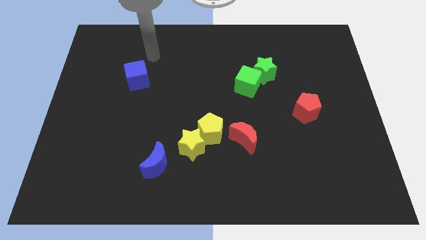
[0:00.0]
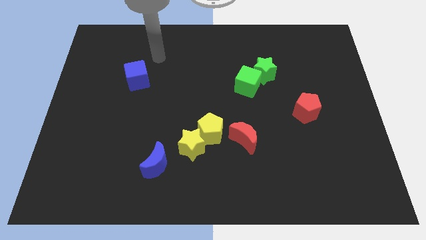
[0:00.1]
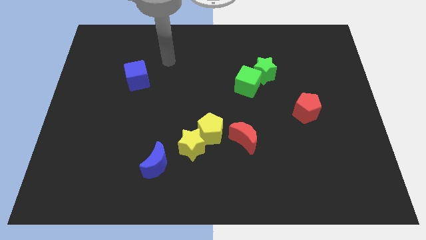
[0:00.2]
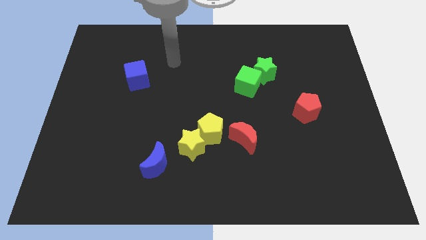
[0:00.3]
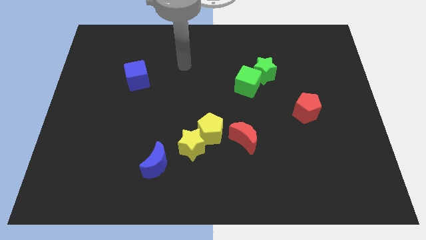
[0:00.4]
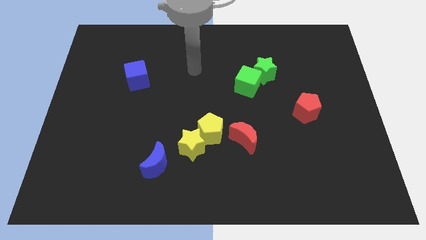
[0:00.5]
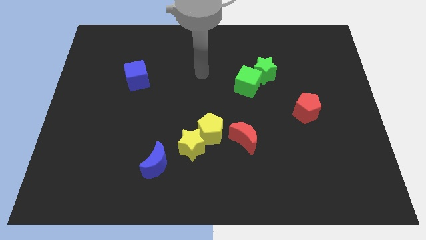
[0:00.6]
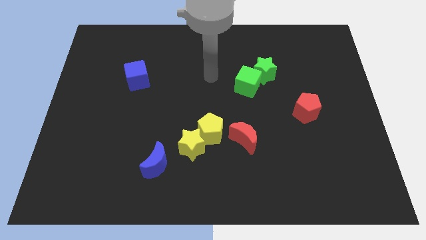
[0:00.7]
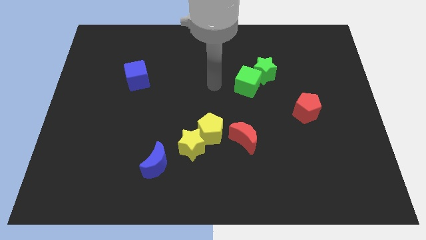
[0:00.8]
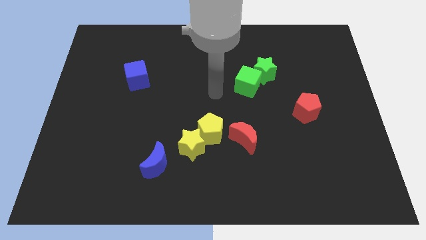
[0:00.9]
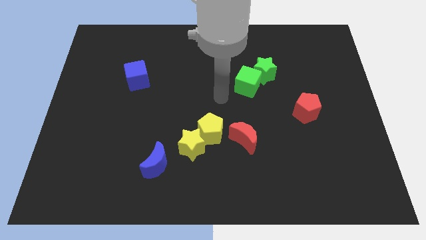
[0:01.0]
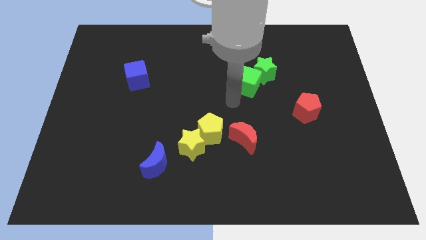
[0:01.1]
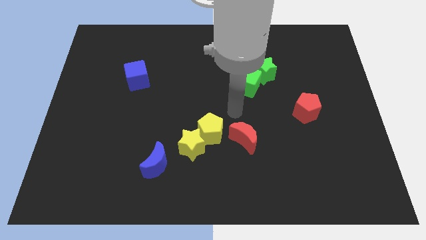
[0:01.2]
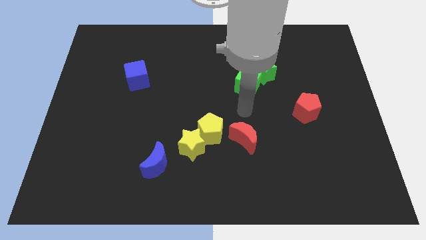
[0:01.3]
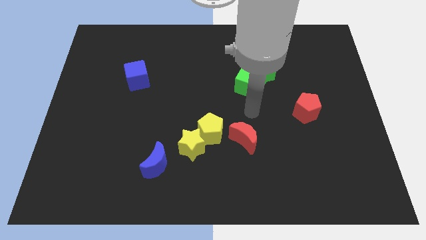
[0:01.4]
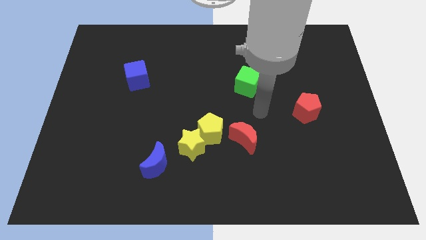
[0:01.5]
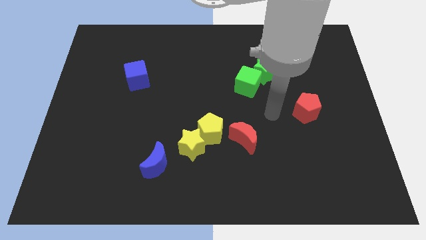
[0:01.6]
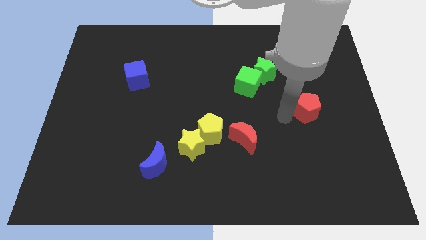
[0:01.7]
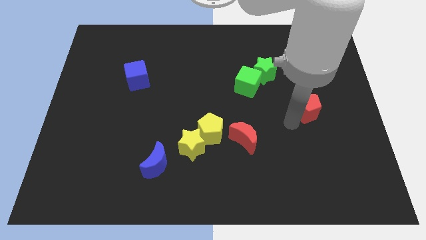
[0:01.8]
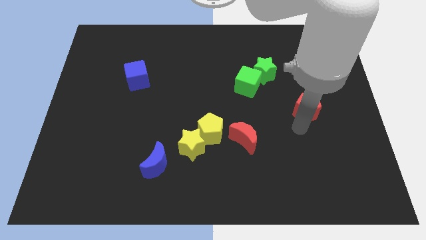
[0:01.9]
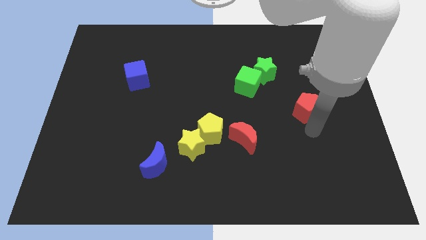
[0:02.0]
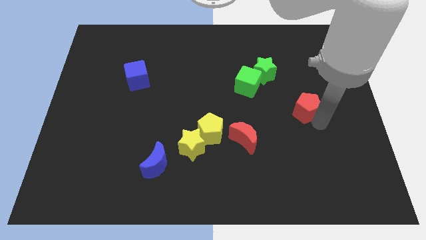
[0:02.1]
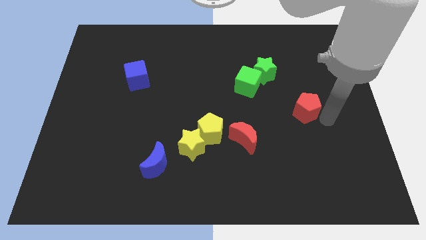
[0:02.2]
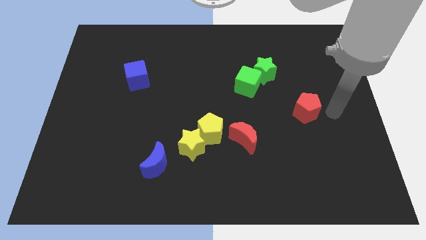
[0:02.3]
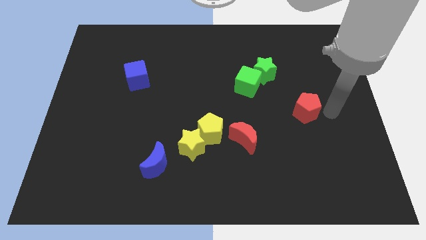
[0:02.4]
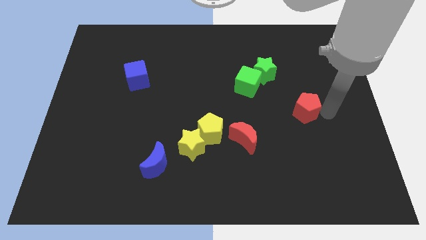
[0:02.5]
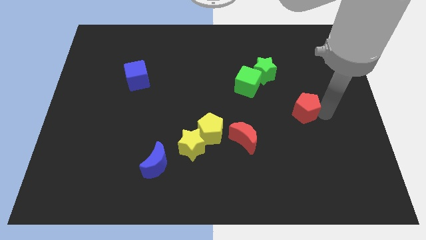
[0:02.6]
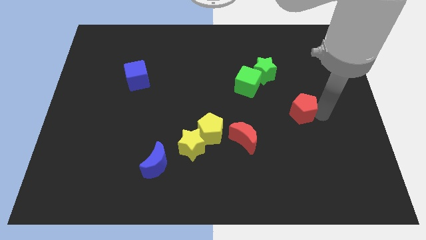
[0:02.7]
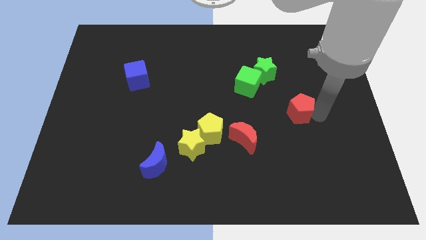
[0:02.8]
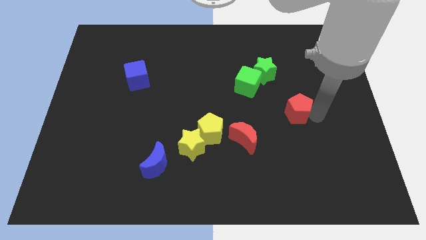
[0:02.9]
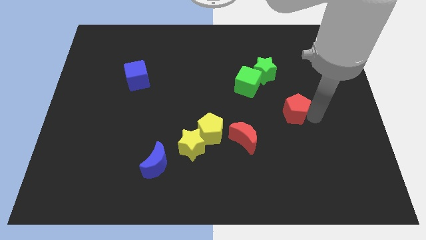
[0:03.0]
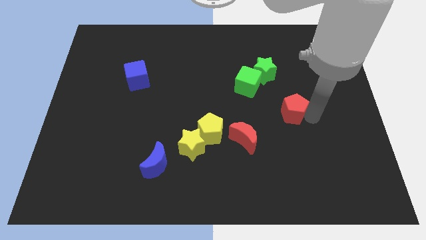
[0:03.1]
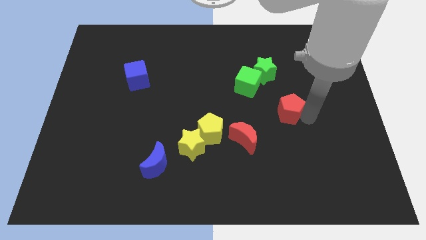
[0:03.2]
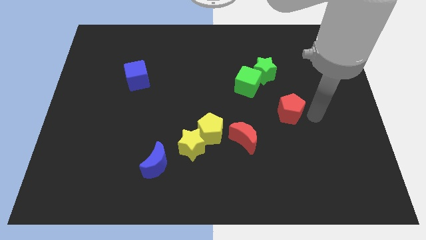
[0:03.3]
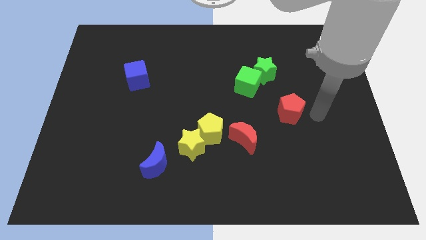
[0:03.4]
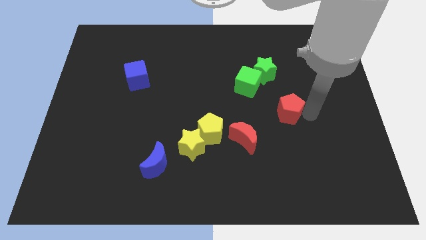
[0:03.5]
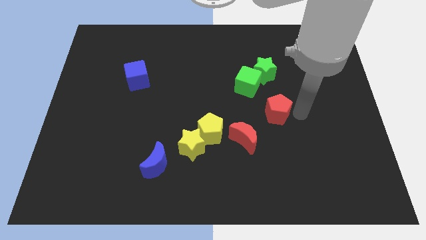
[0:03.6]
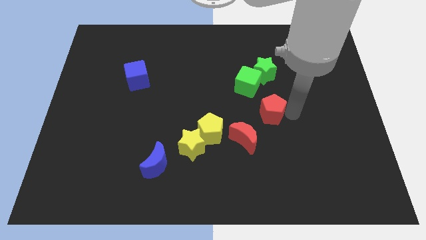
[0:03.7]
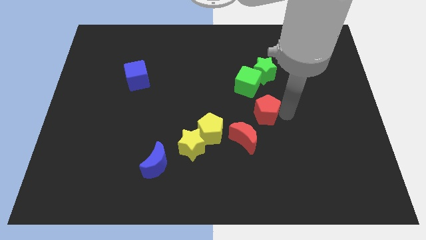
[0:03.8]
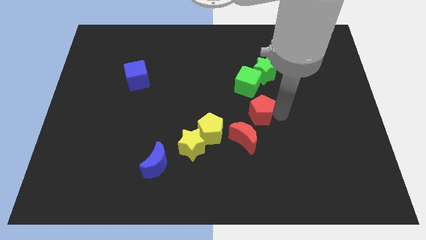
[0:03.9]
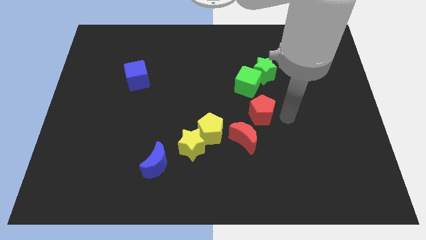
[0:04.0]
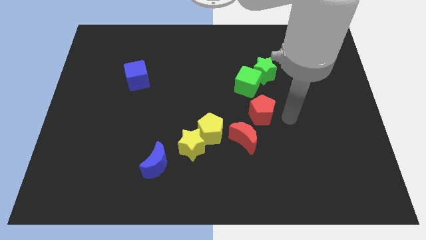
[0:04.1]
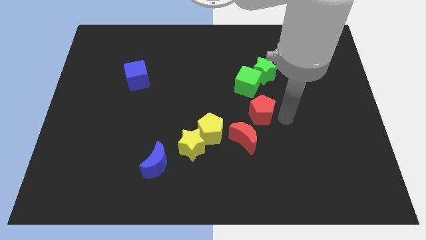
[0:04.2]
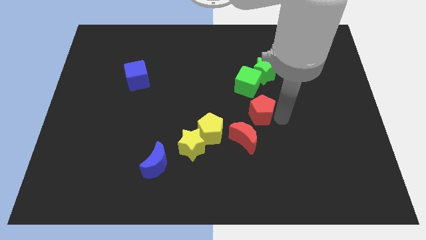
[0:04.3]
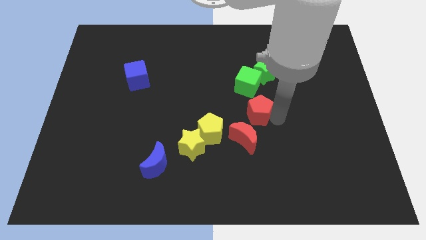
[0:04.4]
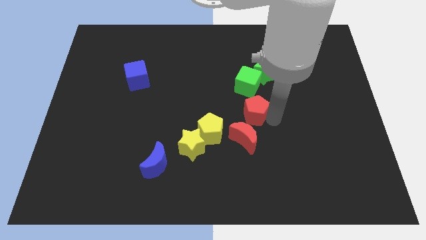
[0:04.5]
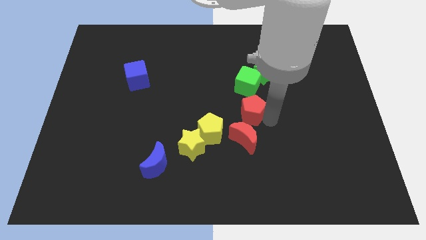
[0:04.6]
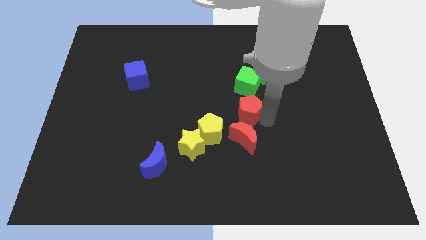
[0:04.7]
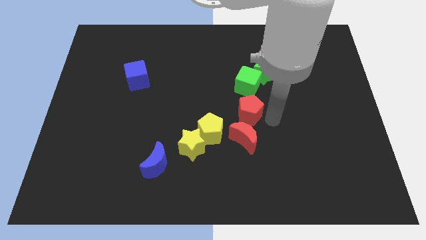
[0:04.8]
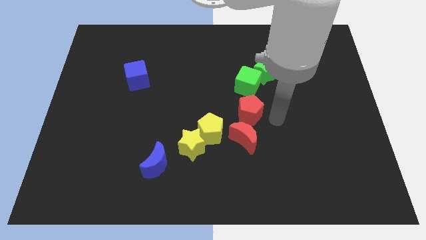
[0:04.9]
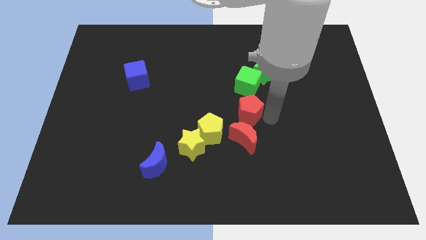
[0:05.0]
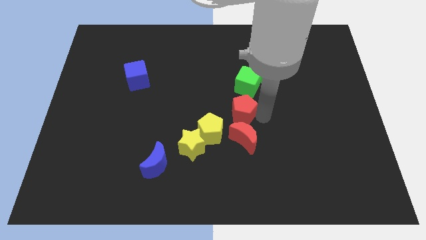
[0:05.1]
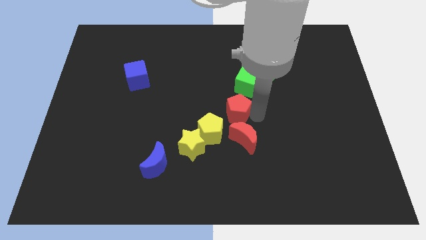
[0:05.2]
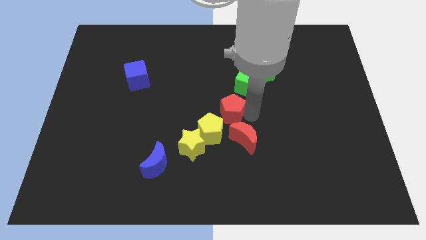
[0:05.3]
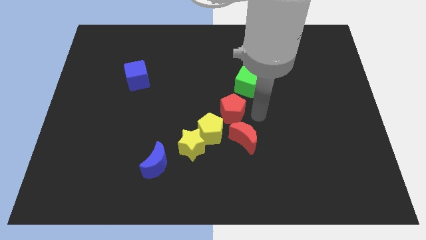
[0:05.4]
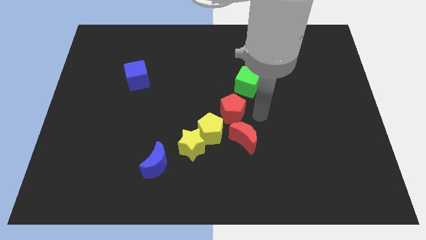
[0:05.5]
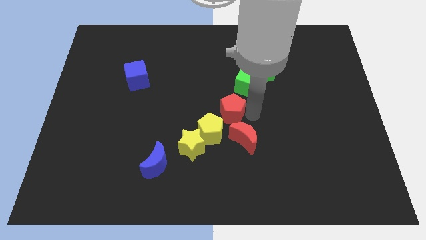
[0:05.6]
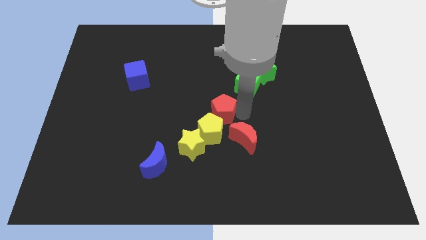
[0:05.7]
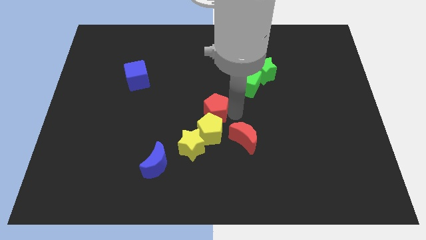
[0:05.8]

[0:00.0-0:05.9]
slide the red pentagon left

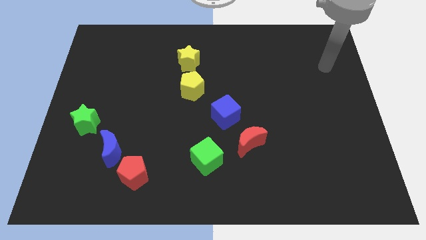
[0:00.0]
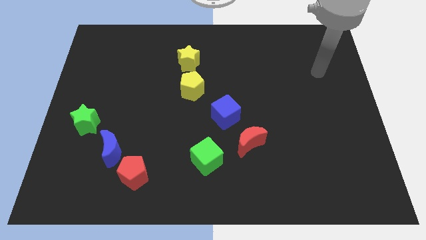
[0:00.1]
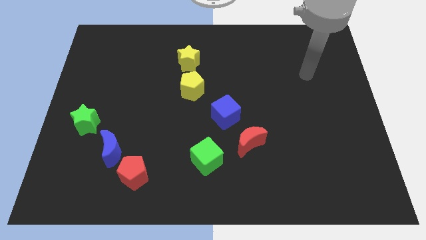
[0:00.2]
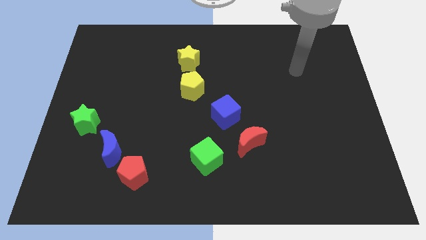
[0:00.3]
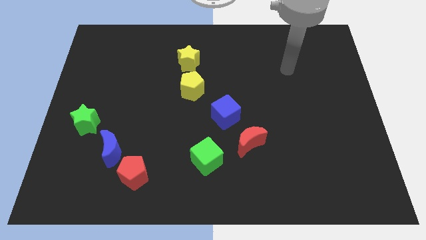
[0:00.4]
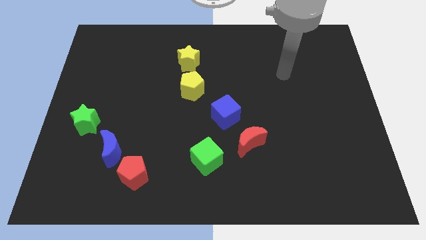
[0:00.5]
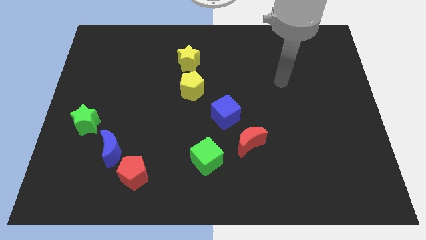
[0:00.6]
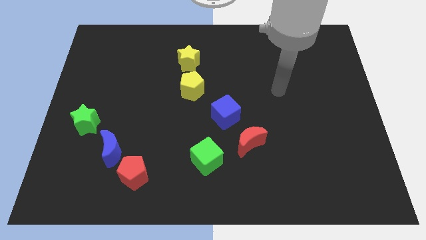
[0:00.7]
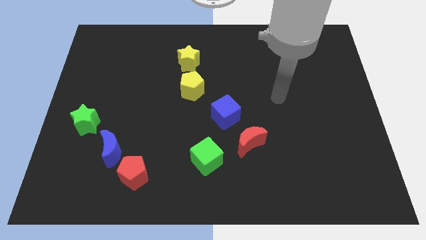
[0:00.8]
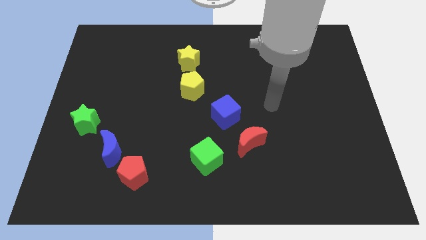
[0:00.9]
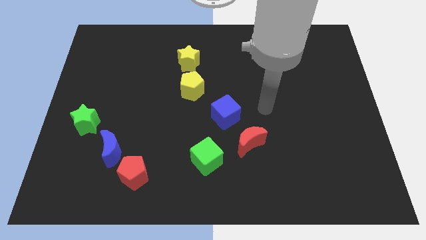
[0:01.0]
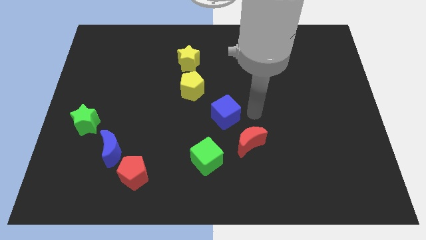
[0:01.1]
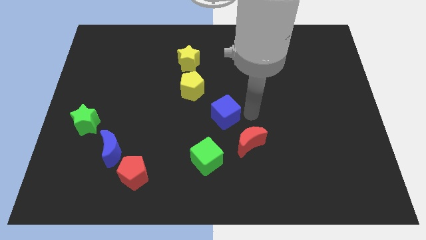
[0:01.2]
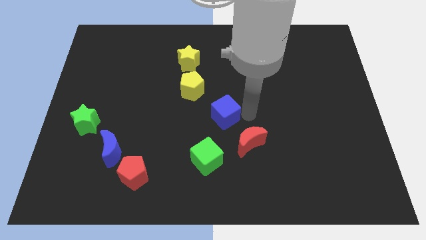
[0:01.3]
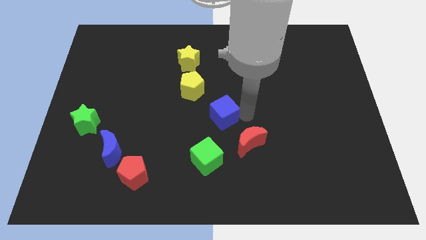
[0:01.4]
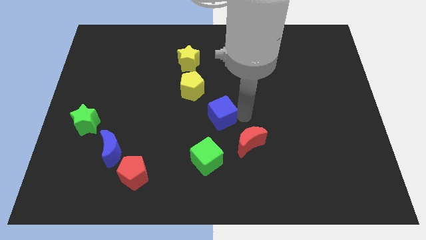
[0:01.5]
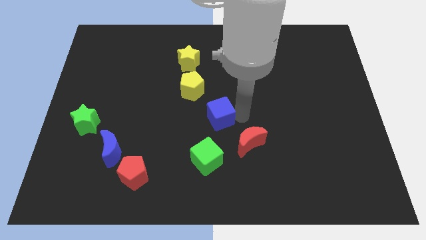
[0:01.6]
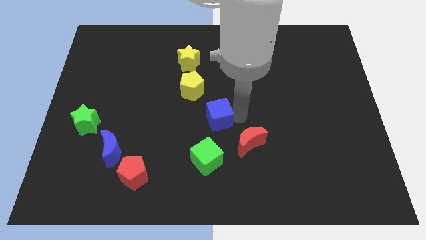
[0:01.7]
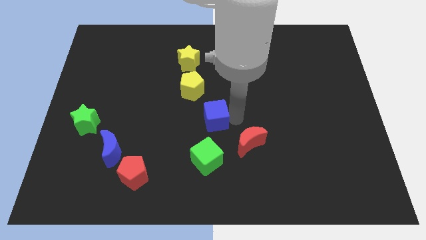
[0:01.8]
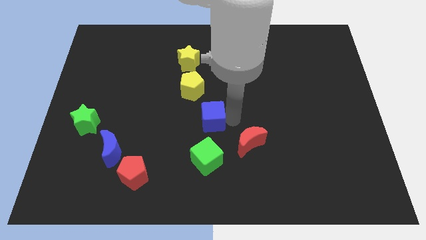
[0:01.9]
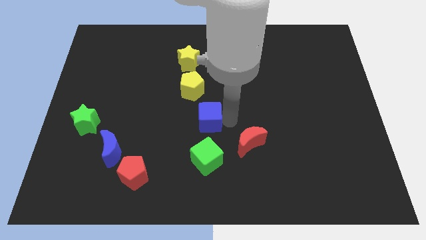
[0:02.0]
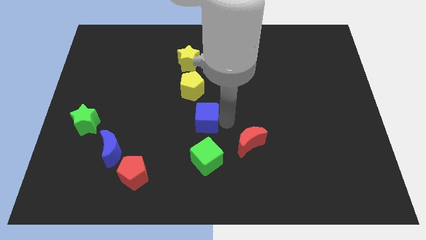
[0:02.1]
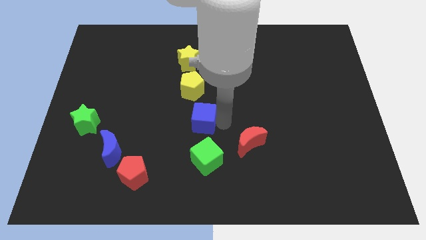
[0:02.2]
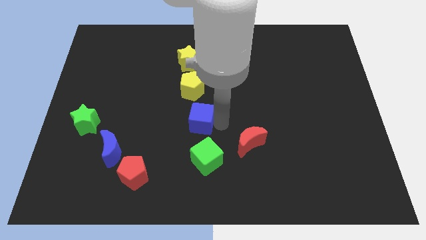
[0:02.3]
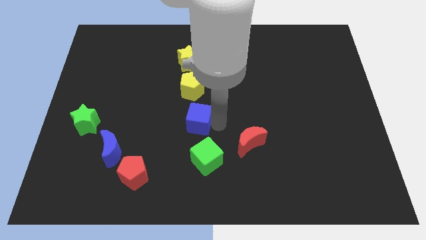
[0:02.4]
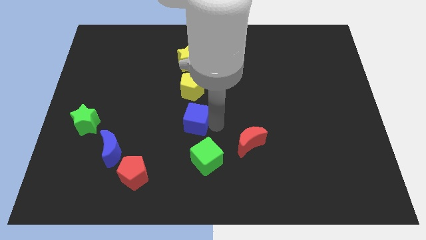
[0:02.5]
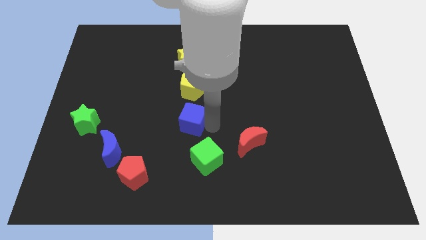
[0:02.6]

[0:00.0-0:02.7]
slide the blue cube to the left a bit
